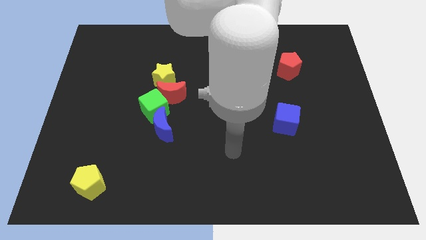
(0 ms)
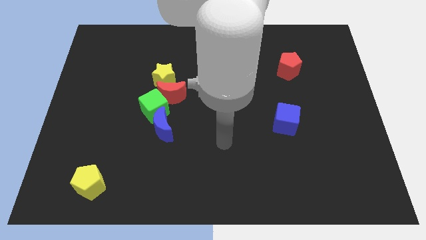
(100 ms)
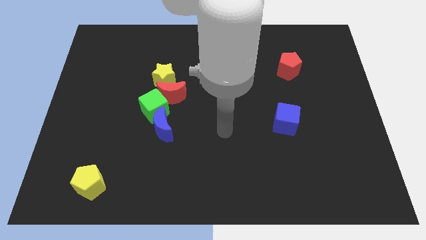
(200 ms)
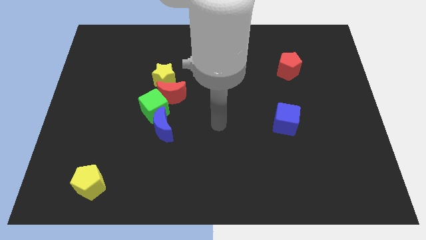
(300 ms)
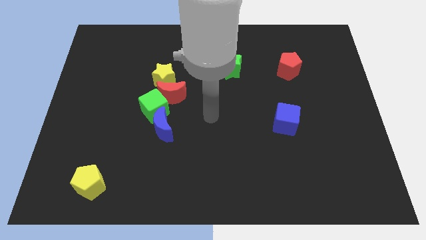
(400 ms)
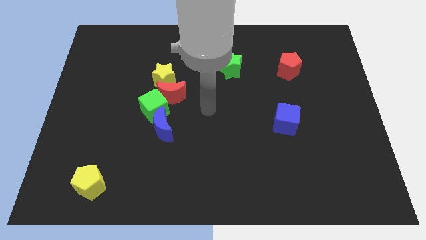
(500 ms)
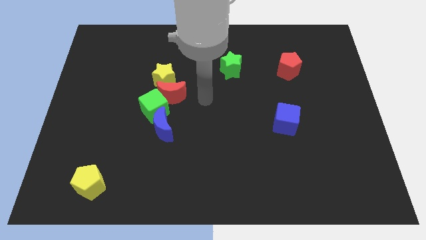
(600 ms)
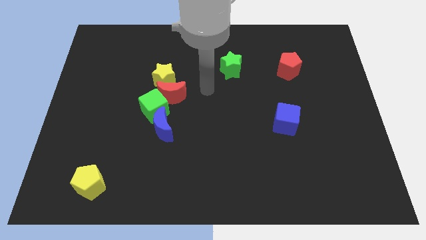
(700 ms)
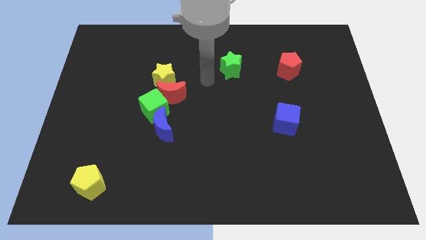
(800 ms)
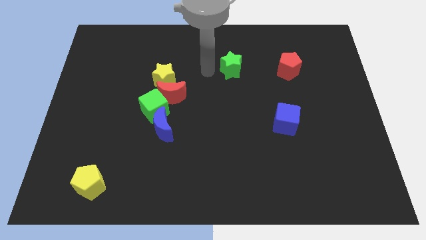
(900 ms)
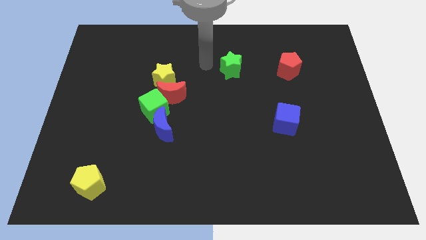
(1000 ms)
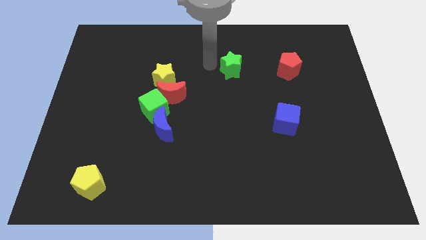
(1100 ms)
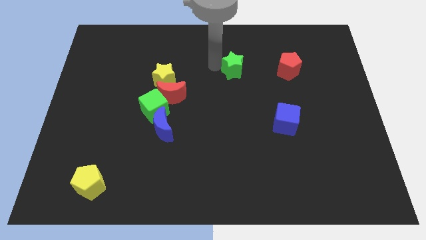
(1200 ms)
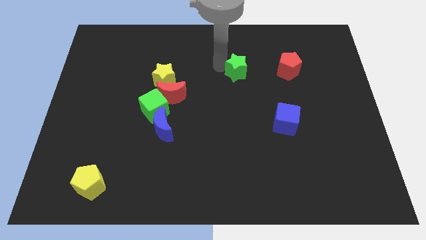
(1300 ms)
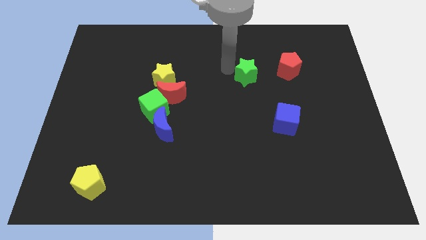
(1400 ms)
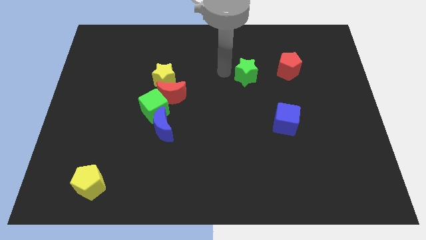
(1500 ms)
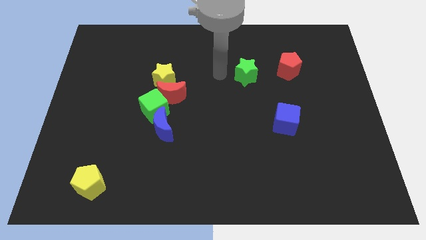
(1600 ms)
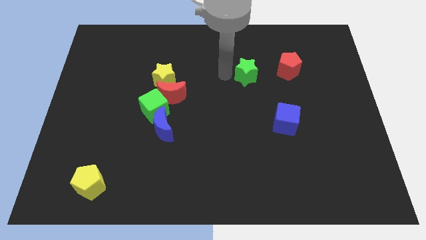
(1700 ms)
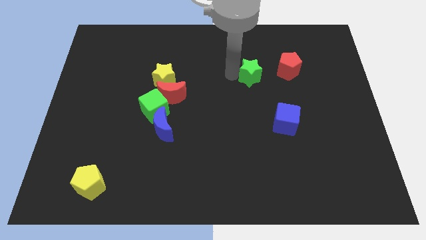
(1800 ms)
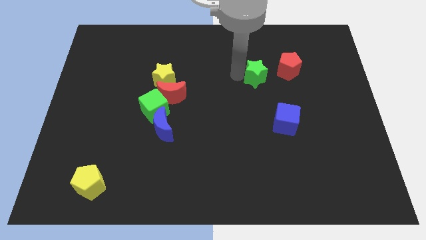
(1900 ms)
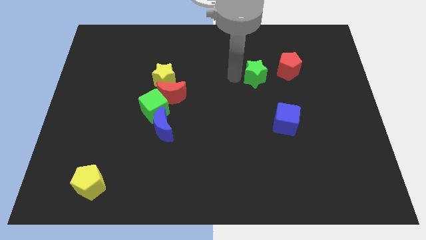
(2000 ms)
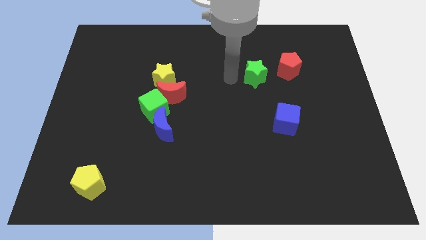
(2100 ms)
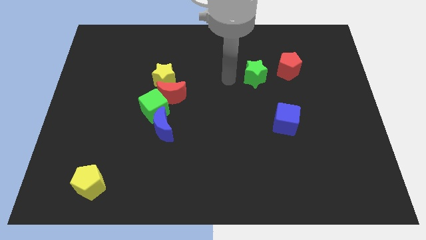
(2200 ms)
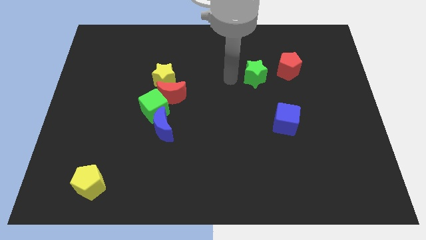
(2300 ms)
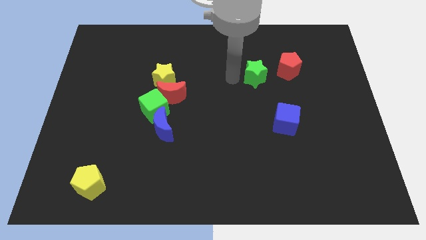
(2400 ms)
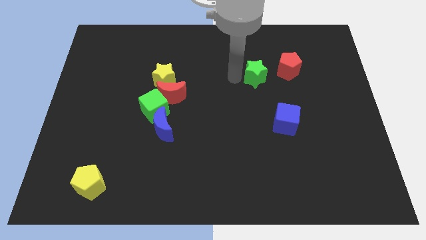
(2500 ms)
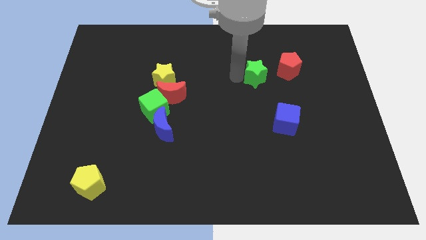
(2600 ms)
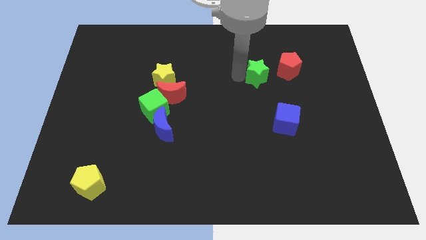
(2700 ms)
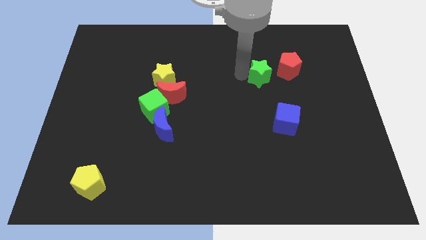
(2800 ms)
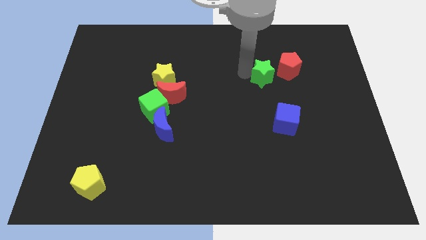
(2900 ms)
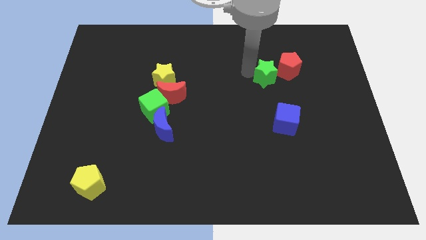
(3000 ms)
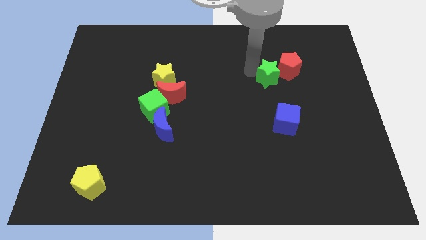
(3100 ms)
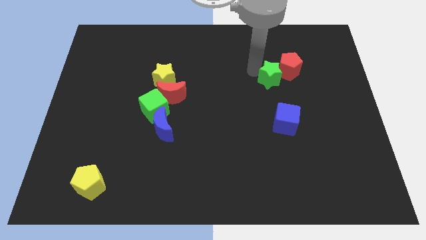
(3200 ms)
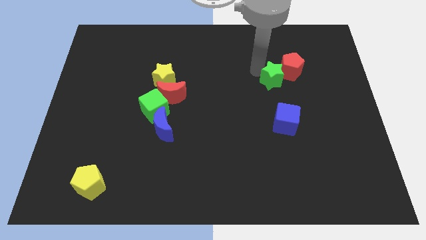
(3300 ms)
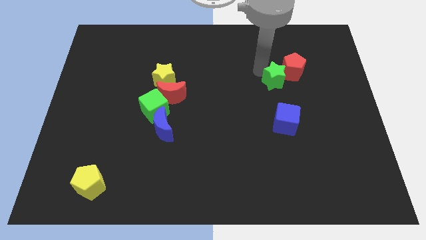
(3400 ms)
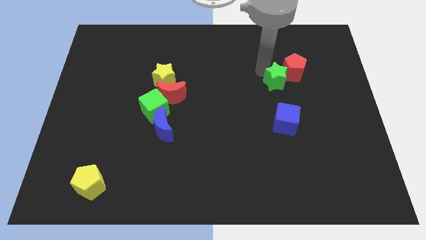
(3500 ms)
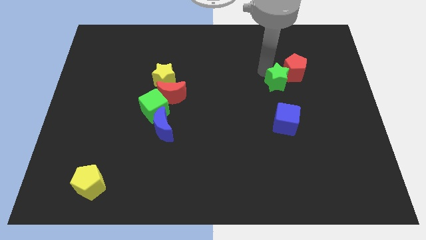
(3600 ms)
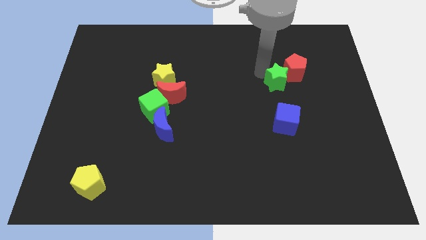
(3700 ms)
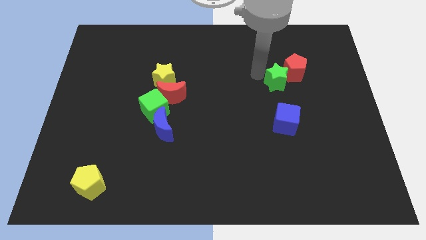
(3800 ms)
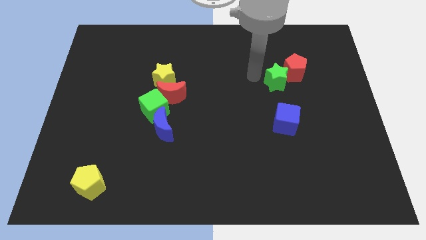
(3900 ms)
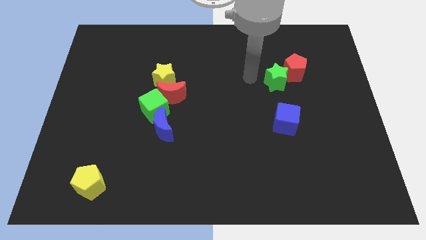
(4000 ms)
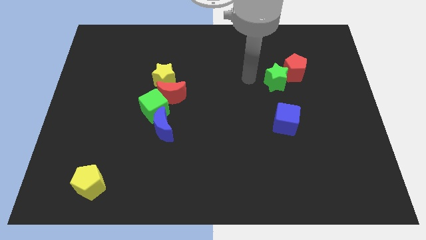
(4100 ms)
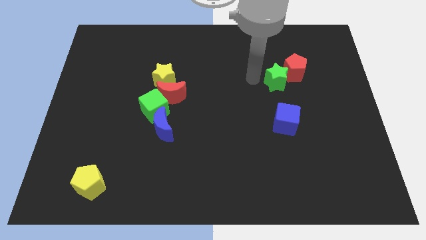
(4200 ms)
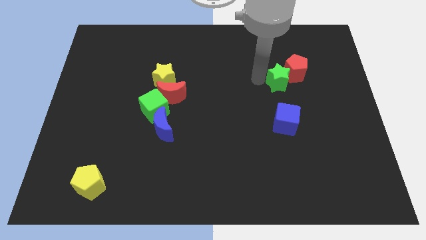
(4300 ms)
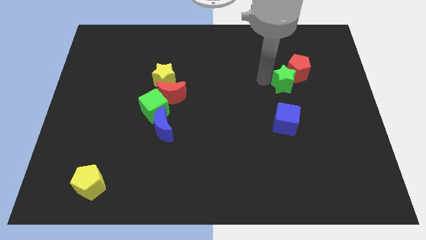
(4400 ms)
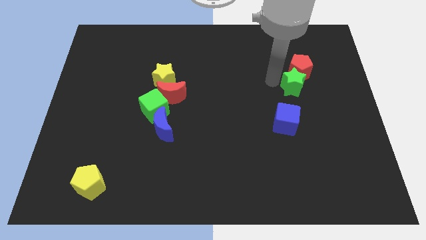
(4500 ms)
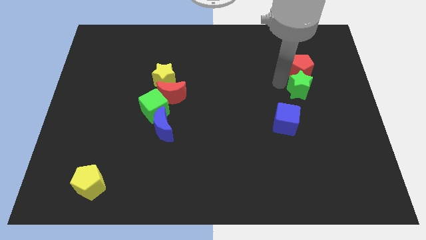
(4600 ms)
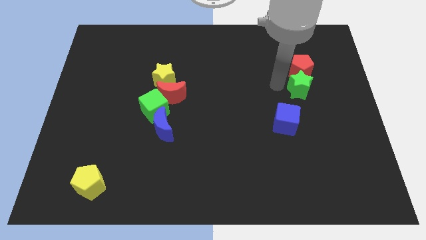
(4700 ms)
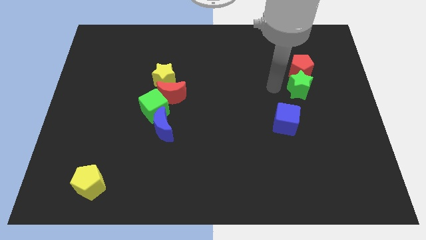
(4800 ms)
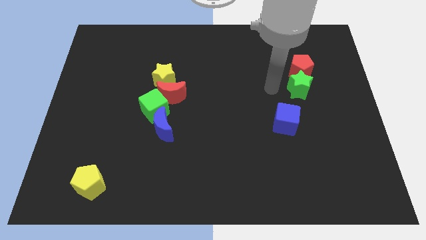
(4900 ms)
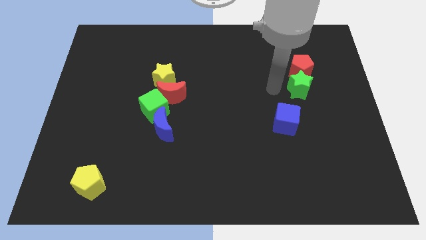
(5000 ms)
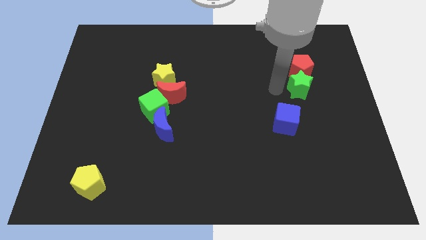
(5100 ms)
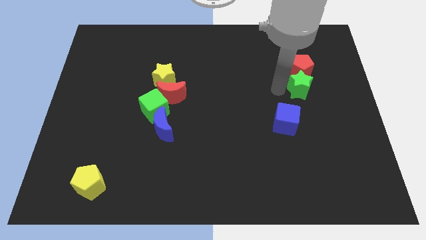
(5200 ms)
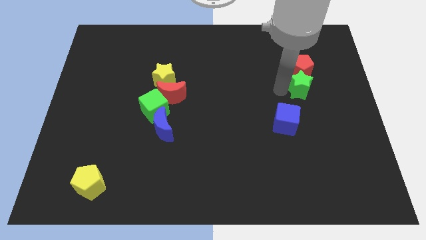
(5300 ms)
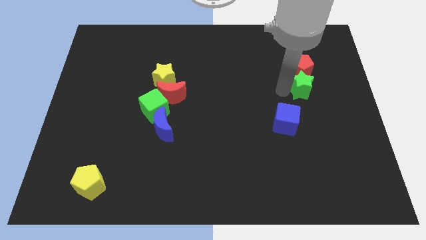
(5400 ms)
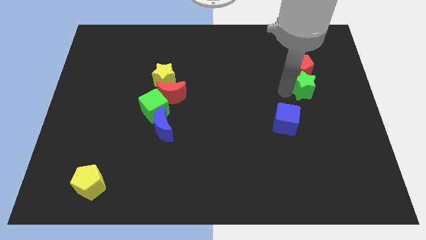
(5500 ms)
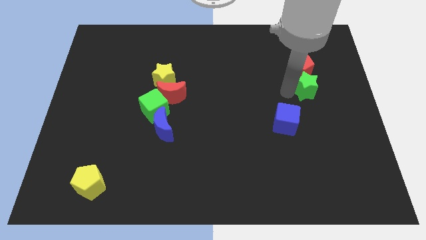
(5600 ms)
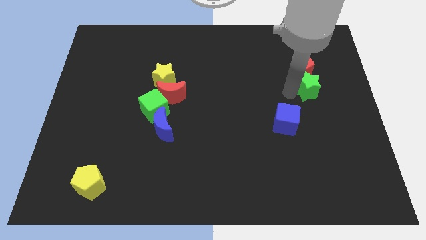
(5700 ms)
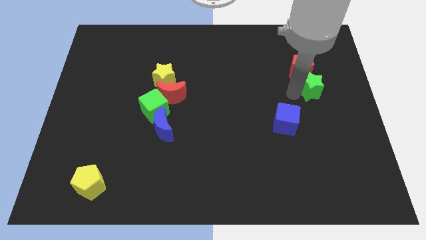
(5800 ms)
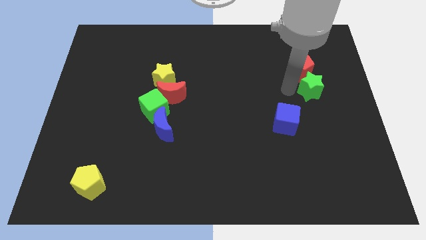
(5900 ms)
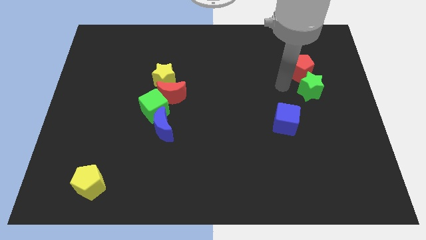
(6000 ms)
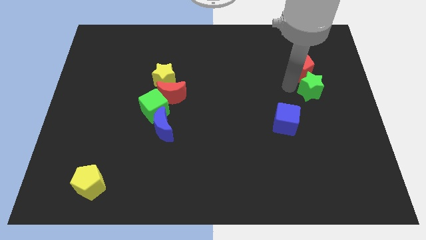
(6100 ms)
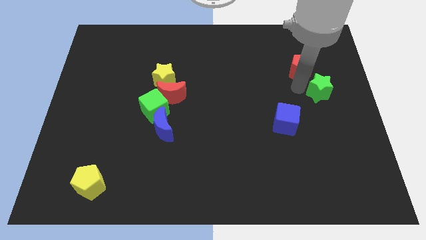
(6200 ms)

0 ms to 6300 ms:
put the green star to the right side of the board
